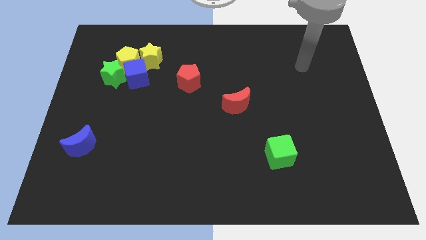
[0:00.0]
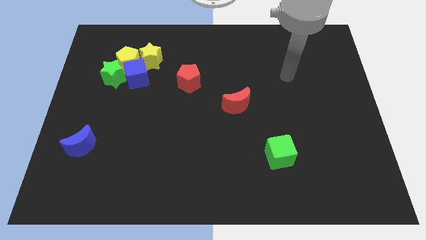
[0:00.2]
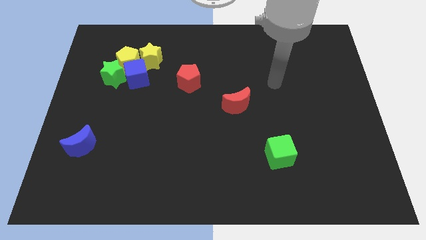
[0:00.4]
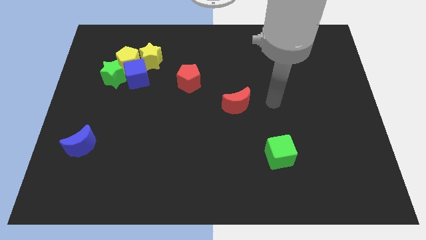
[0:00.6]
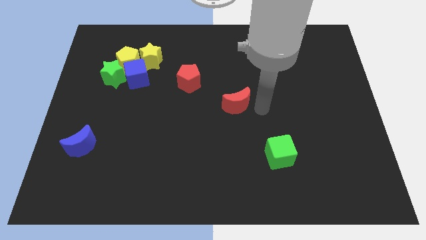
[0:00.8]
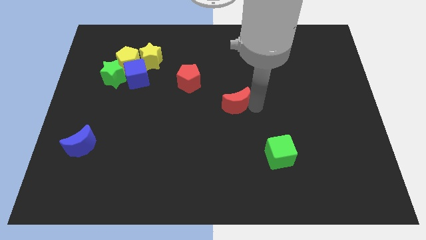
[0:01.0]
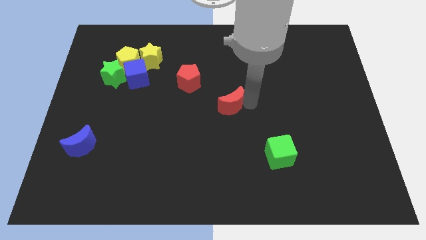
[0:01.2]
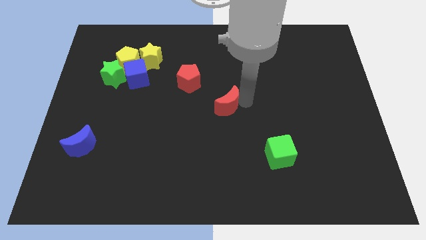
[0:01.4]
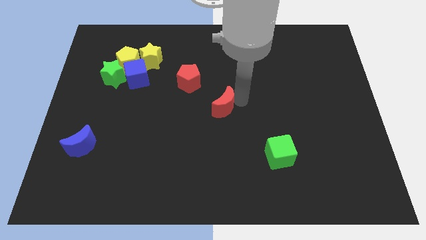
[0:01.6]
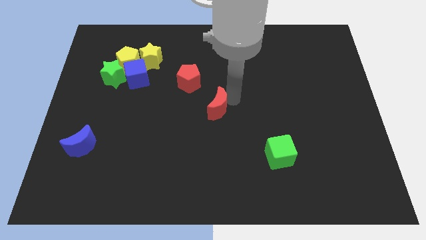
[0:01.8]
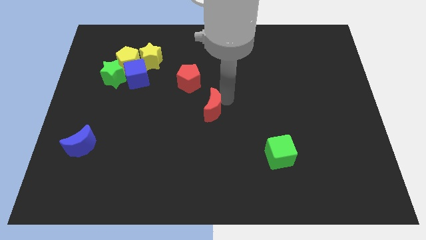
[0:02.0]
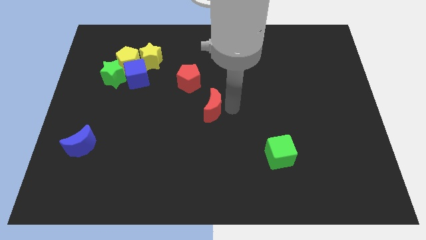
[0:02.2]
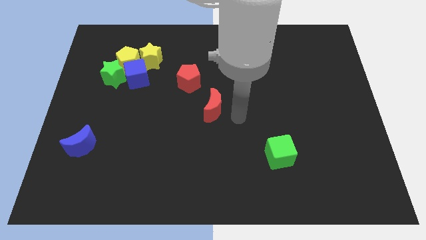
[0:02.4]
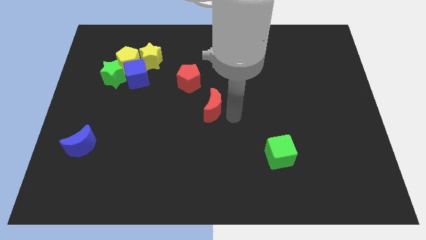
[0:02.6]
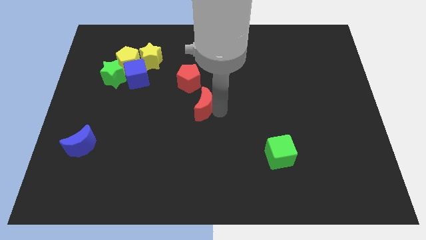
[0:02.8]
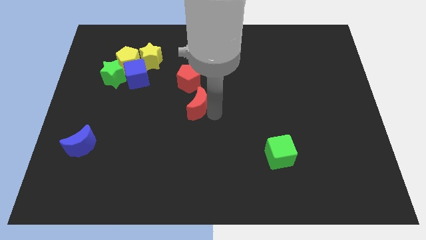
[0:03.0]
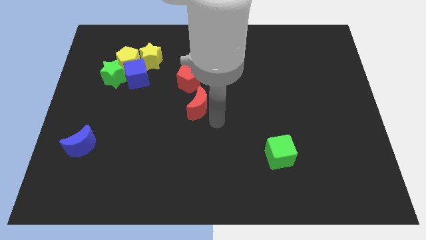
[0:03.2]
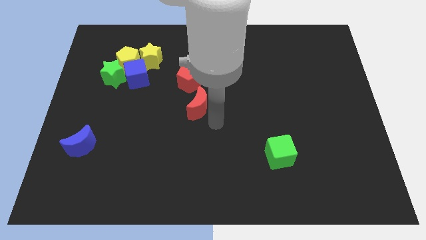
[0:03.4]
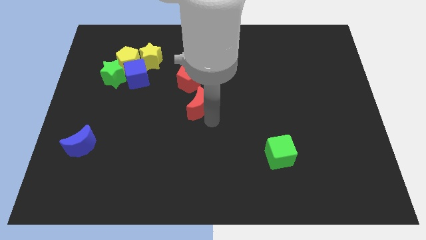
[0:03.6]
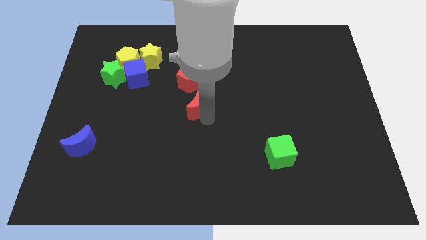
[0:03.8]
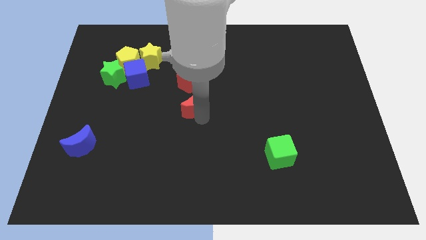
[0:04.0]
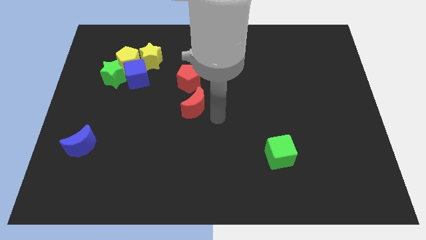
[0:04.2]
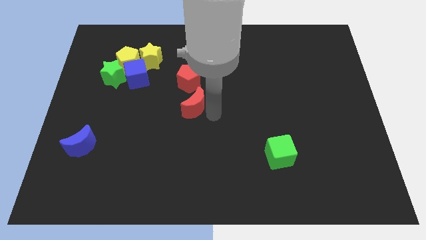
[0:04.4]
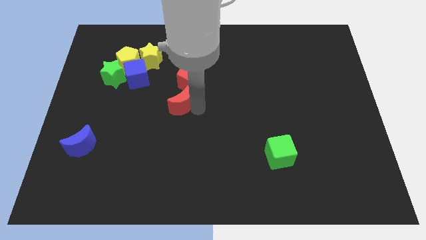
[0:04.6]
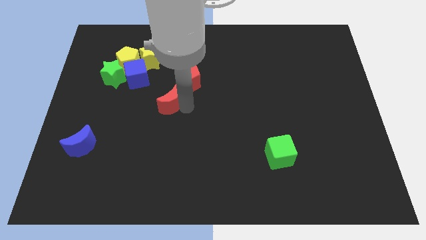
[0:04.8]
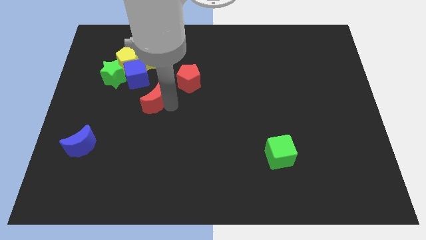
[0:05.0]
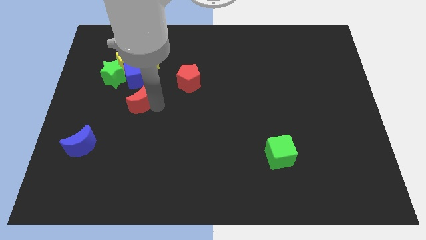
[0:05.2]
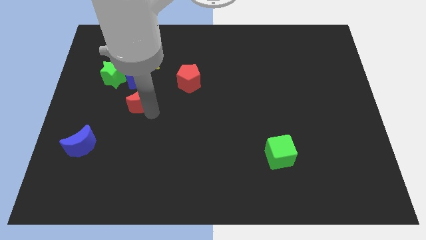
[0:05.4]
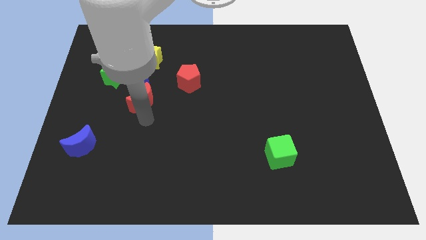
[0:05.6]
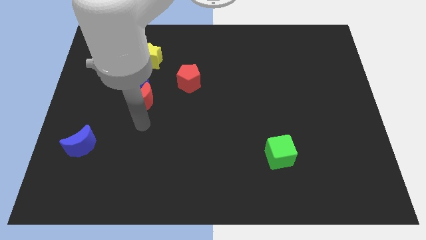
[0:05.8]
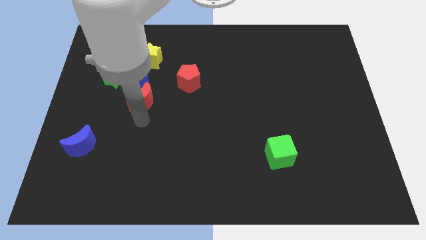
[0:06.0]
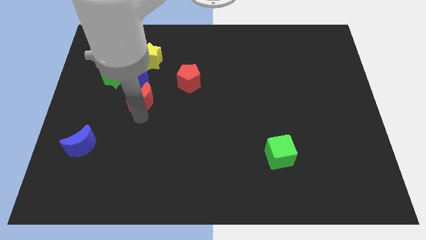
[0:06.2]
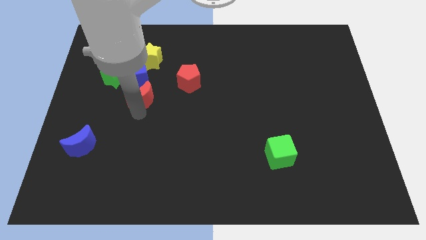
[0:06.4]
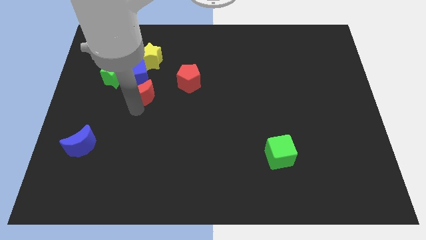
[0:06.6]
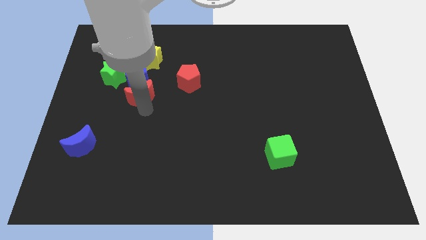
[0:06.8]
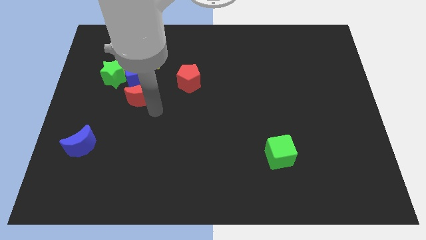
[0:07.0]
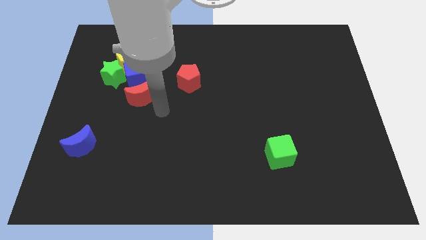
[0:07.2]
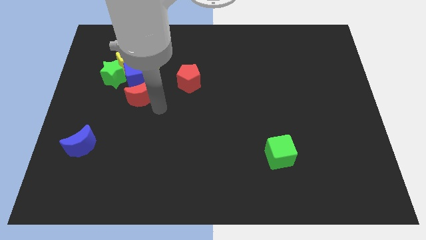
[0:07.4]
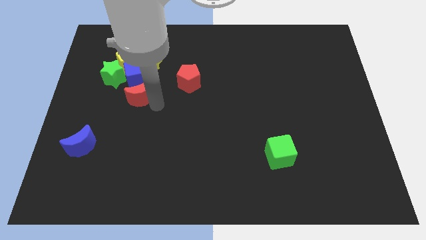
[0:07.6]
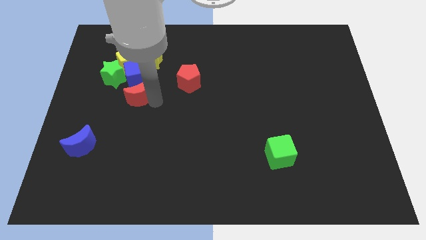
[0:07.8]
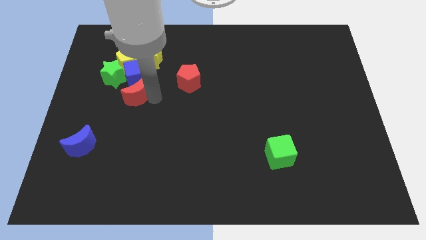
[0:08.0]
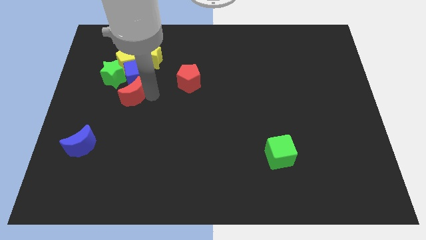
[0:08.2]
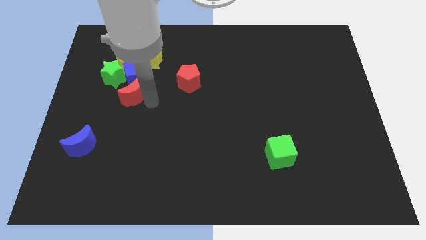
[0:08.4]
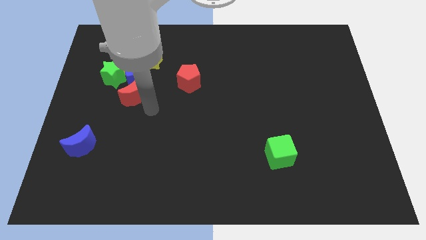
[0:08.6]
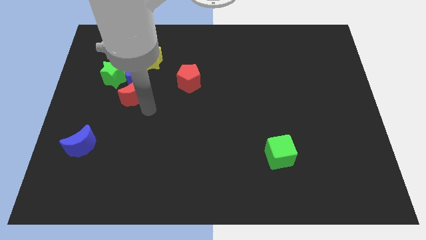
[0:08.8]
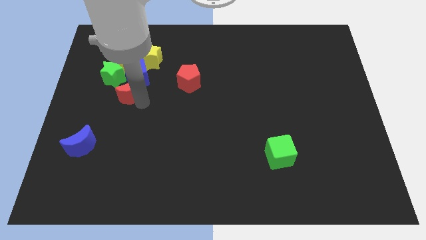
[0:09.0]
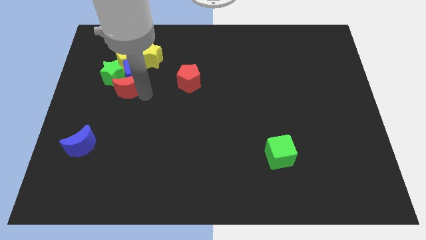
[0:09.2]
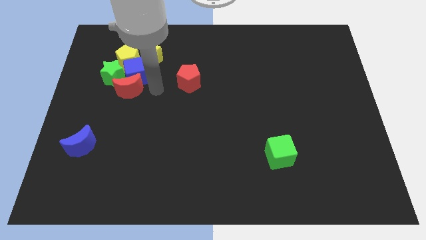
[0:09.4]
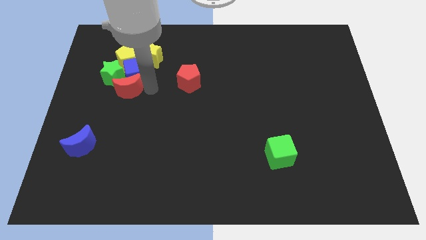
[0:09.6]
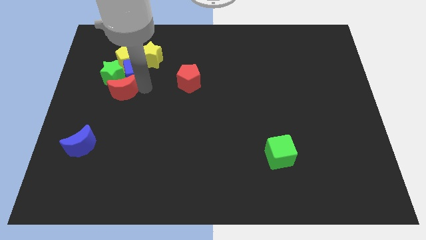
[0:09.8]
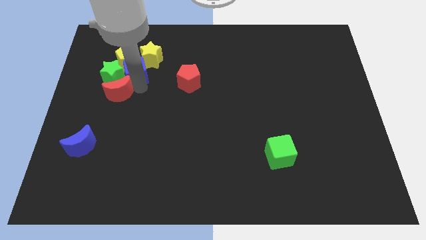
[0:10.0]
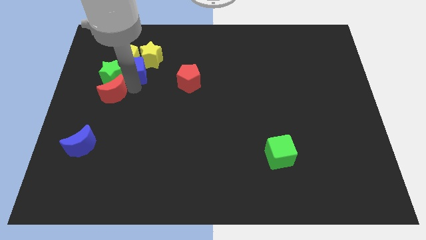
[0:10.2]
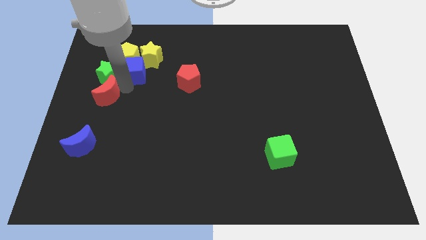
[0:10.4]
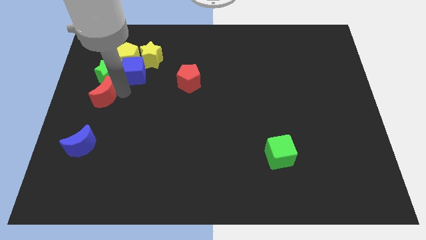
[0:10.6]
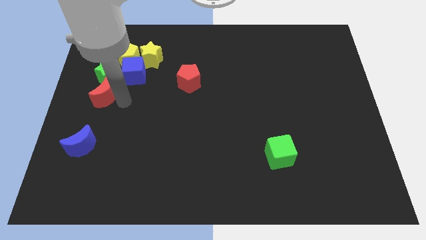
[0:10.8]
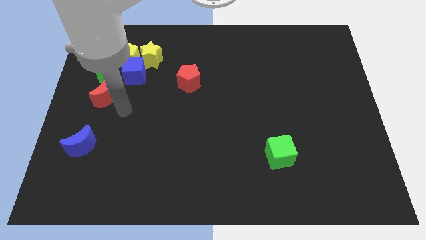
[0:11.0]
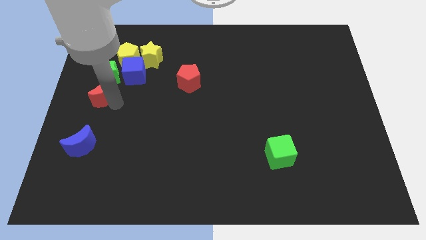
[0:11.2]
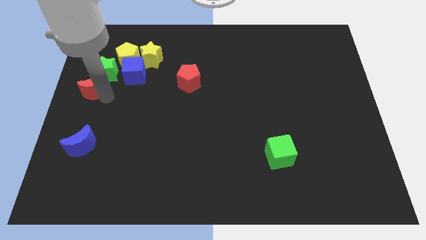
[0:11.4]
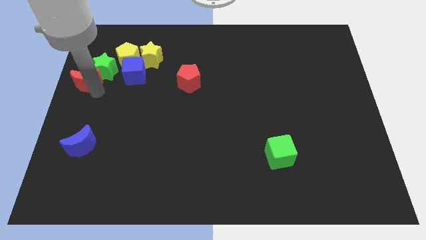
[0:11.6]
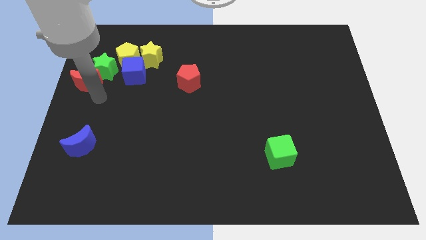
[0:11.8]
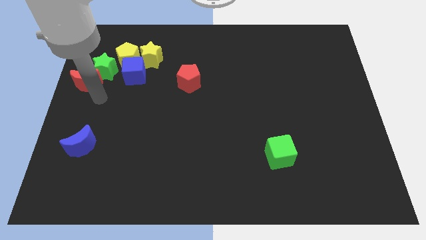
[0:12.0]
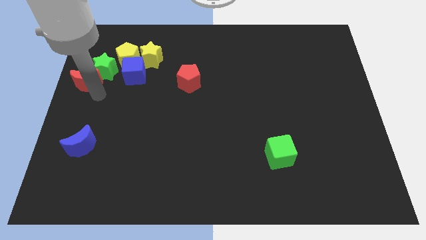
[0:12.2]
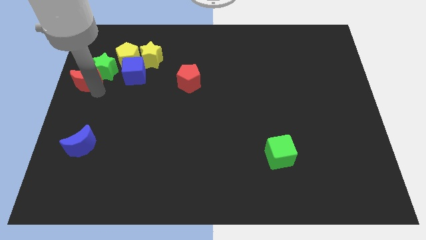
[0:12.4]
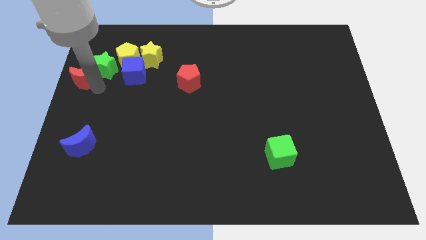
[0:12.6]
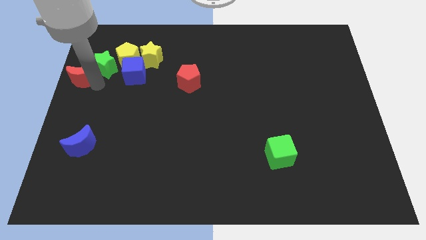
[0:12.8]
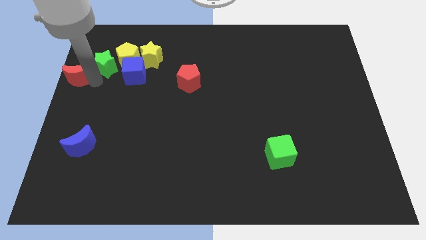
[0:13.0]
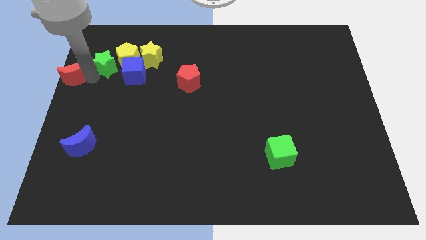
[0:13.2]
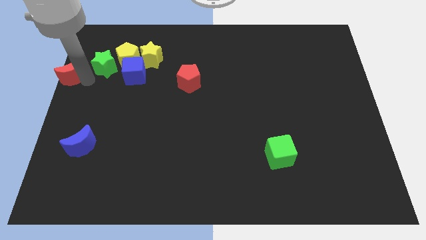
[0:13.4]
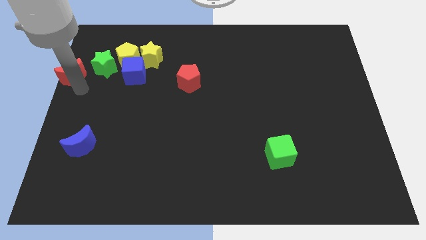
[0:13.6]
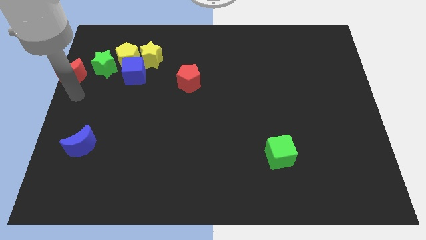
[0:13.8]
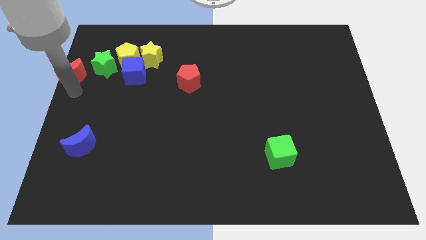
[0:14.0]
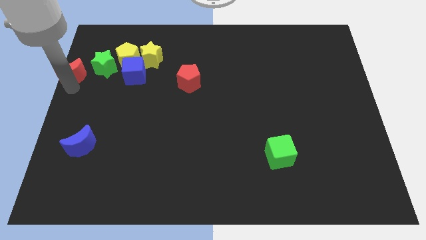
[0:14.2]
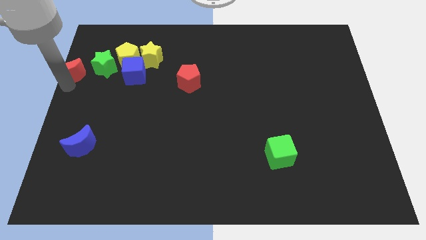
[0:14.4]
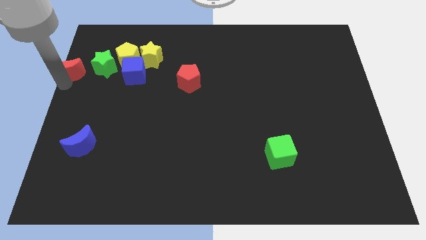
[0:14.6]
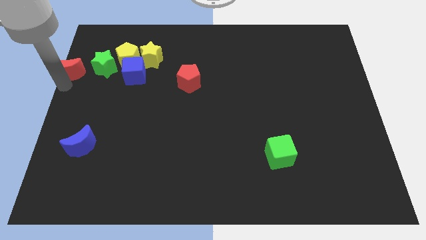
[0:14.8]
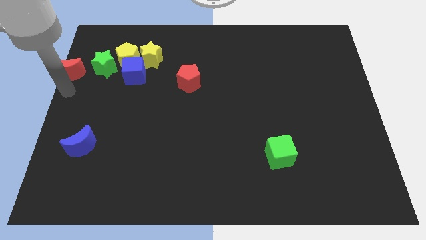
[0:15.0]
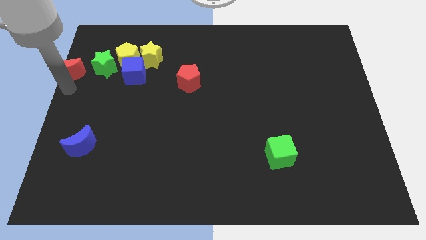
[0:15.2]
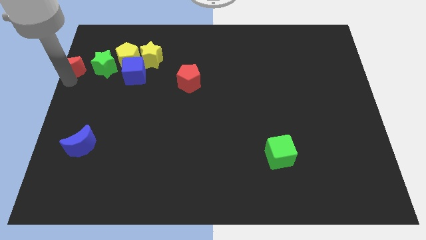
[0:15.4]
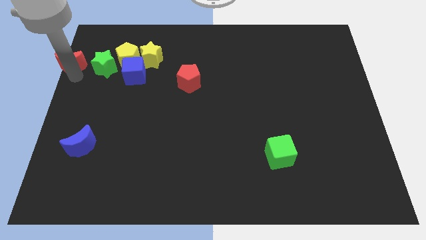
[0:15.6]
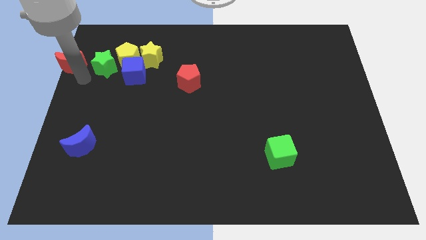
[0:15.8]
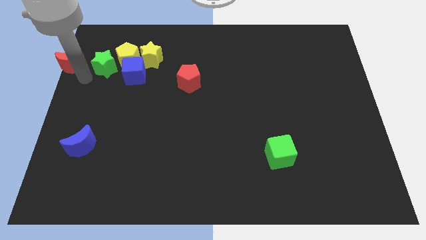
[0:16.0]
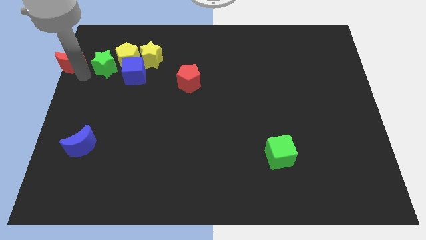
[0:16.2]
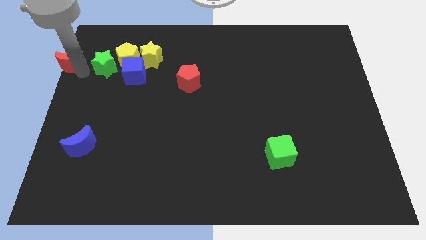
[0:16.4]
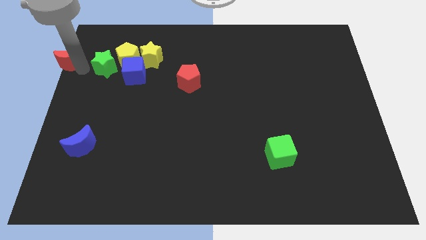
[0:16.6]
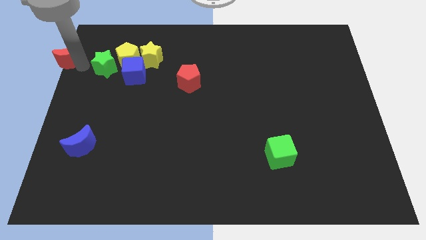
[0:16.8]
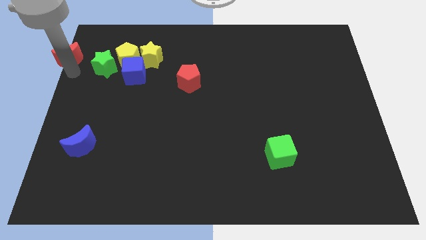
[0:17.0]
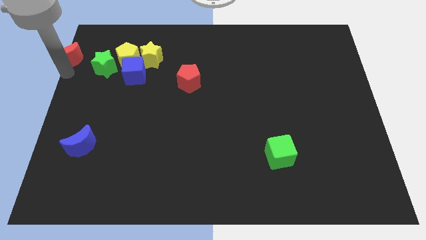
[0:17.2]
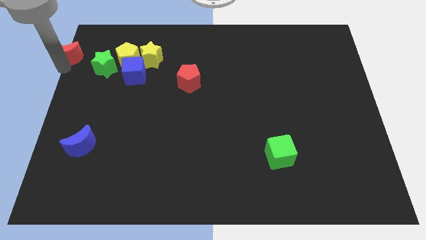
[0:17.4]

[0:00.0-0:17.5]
move the red moon to the top left of the board
